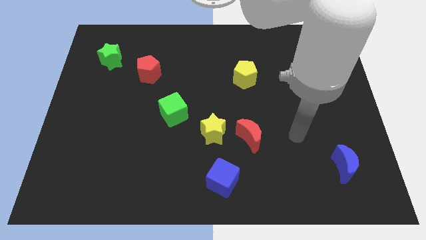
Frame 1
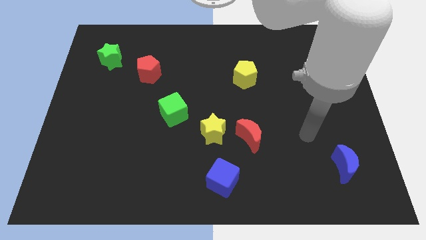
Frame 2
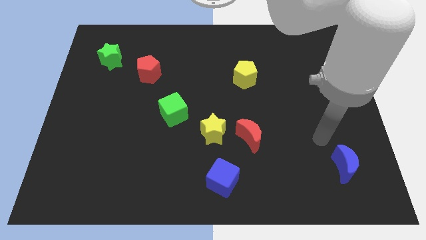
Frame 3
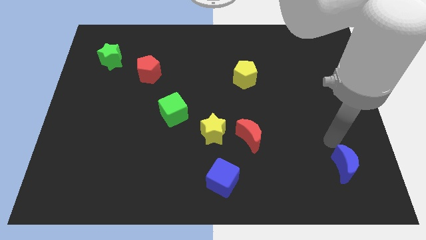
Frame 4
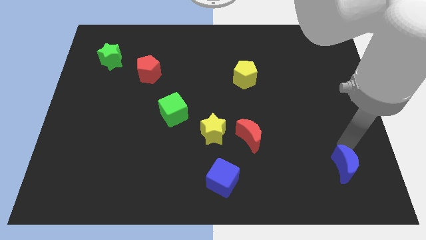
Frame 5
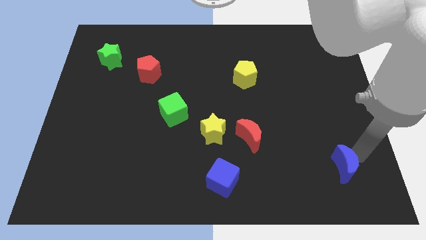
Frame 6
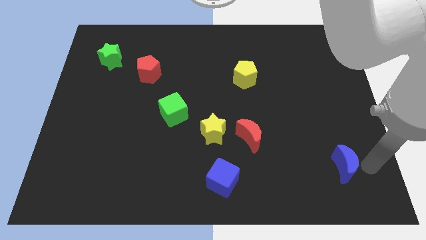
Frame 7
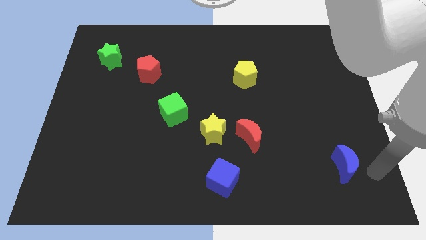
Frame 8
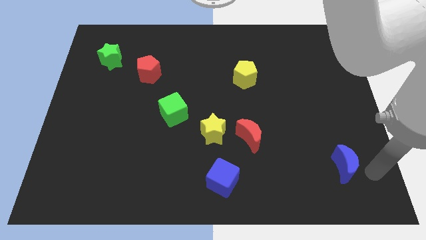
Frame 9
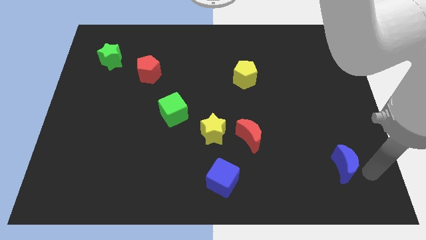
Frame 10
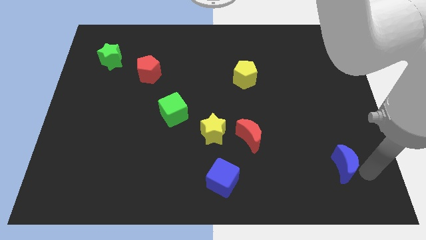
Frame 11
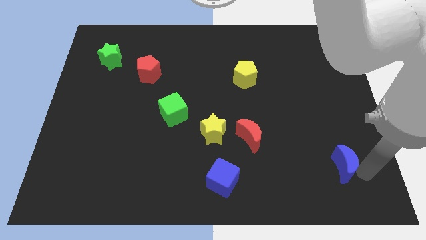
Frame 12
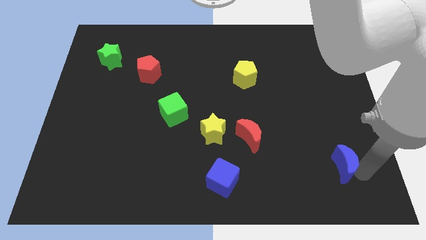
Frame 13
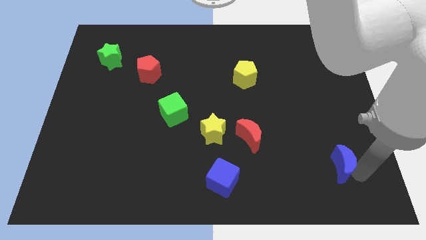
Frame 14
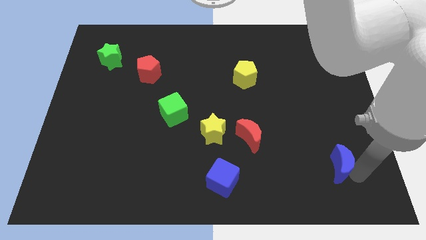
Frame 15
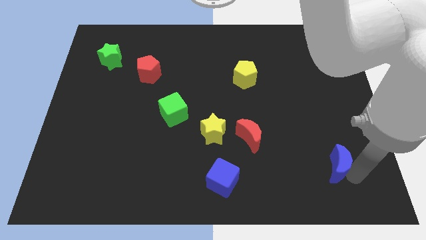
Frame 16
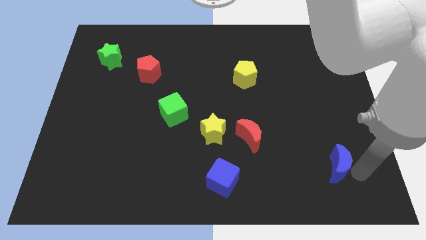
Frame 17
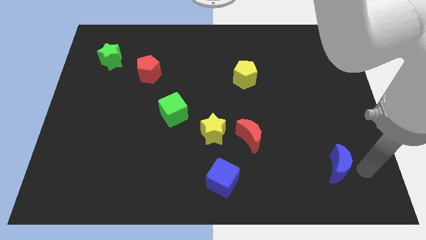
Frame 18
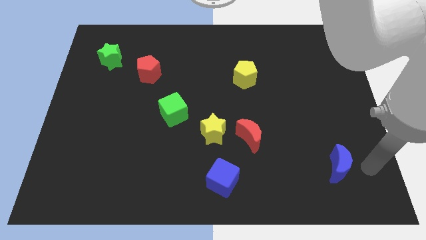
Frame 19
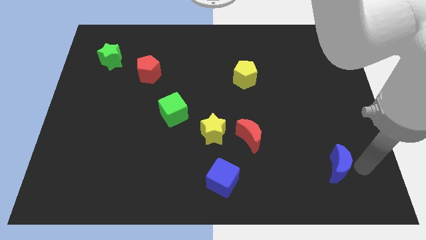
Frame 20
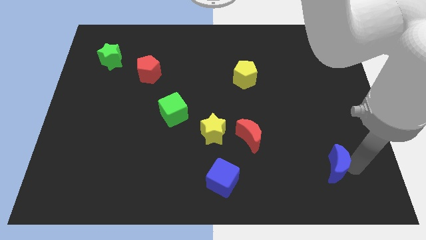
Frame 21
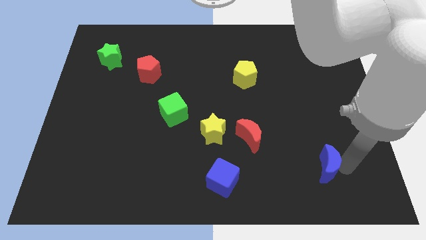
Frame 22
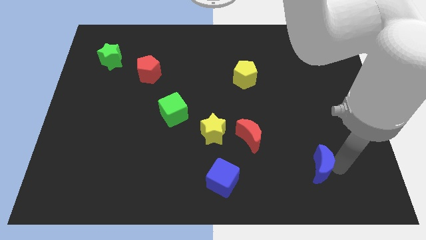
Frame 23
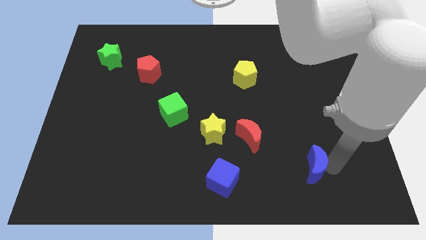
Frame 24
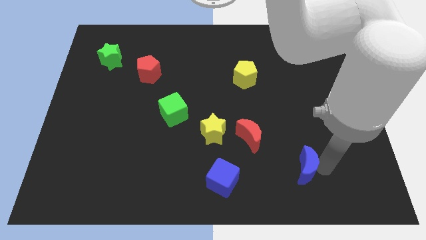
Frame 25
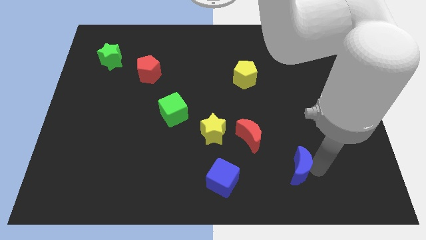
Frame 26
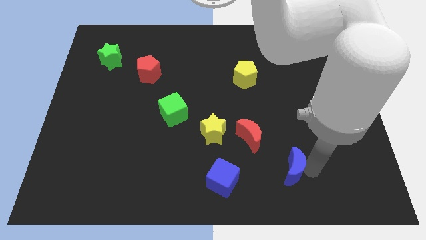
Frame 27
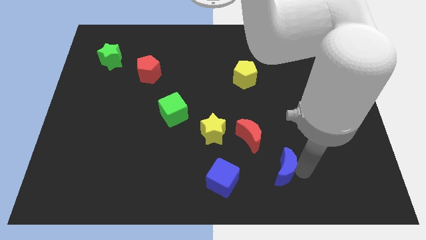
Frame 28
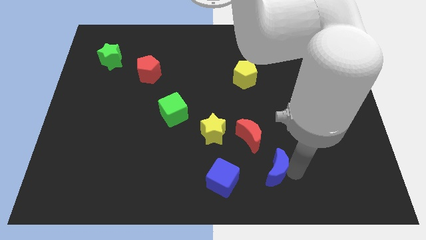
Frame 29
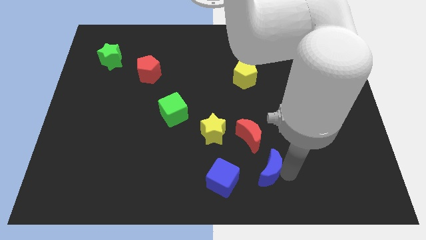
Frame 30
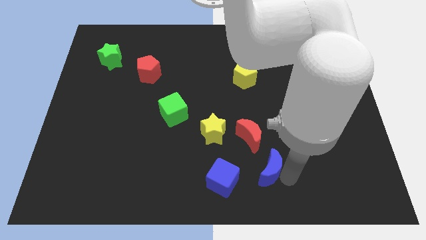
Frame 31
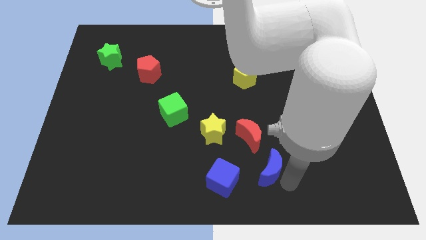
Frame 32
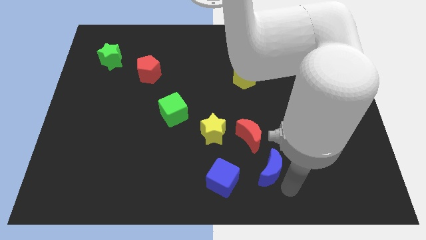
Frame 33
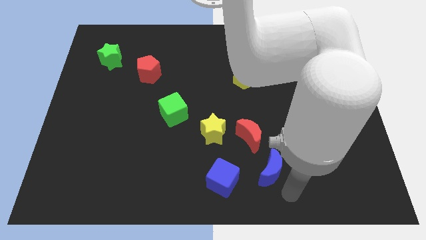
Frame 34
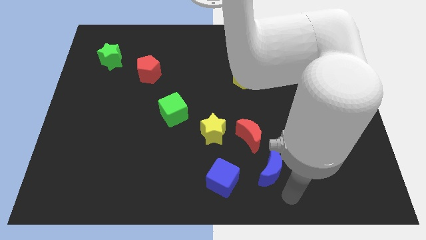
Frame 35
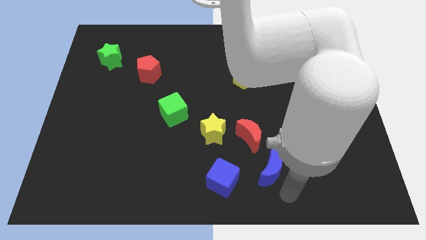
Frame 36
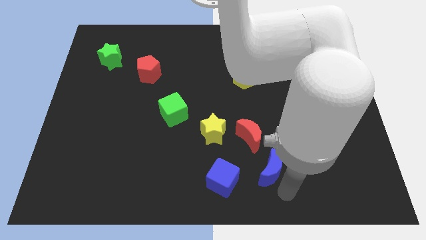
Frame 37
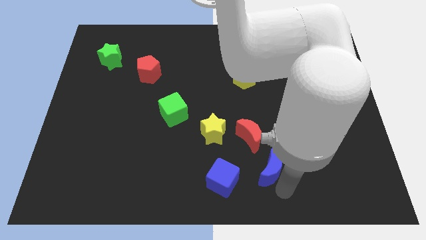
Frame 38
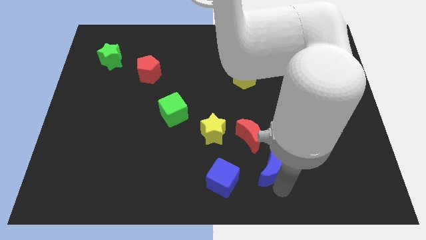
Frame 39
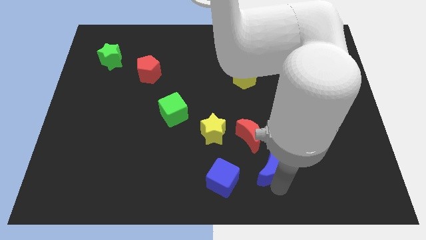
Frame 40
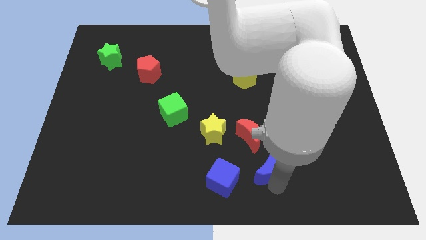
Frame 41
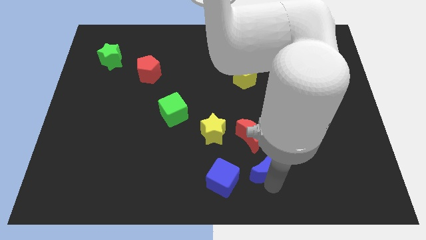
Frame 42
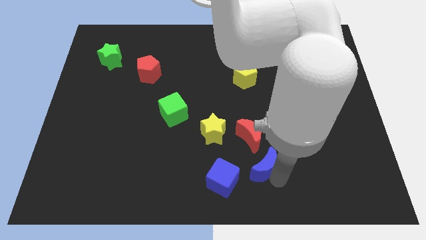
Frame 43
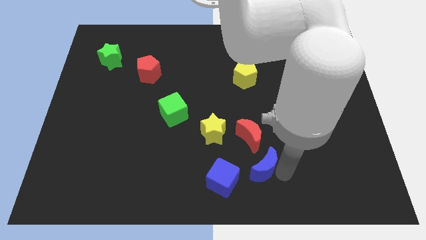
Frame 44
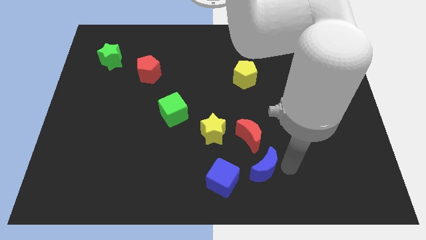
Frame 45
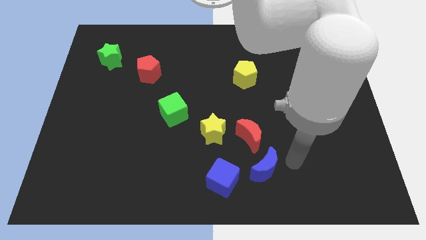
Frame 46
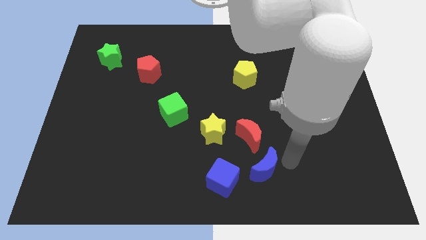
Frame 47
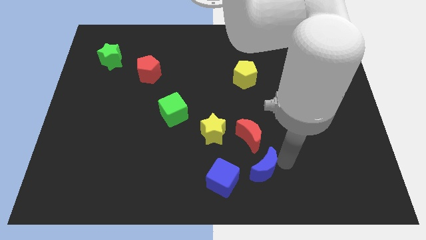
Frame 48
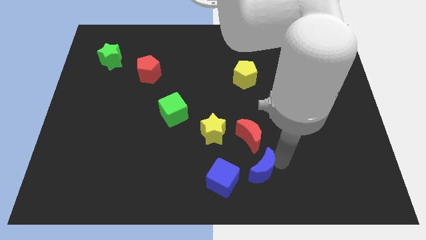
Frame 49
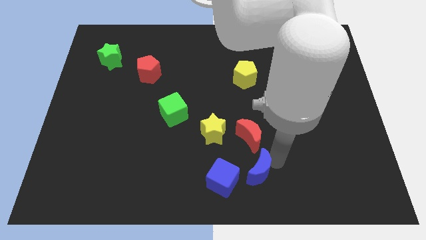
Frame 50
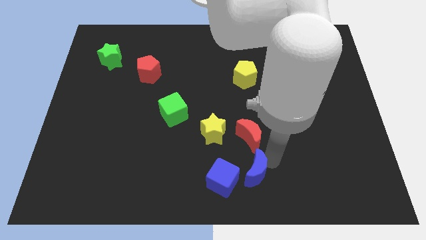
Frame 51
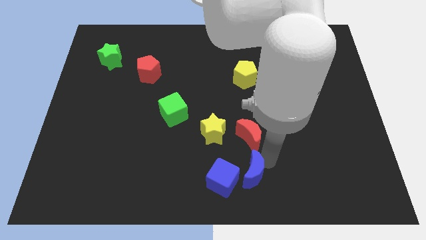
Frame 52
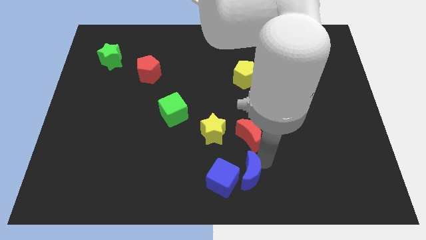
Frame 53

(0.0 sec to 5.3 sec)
put the blue moon to the blue cube

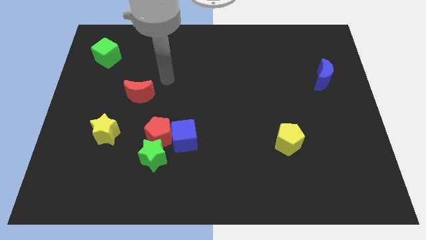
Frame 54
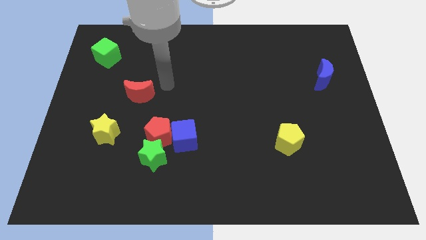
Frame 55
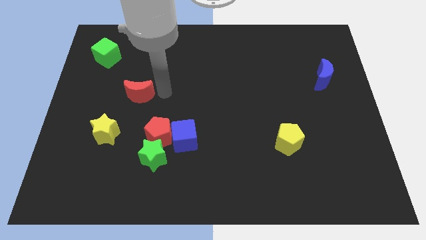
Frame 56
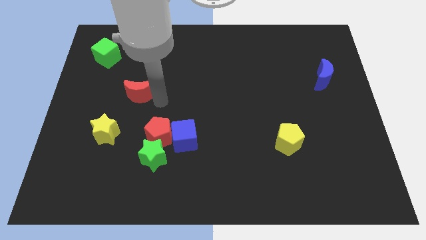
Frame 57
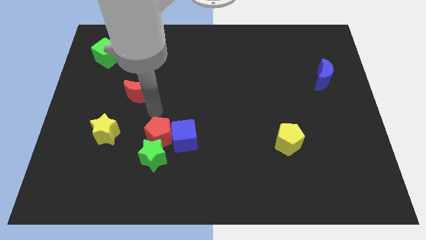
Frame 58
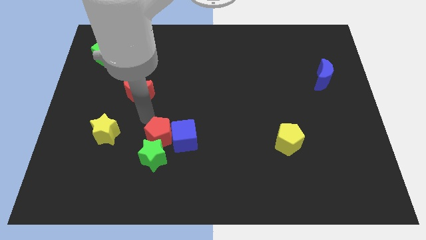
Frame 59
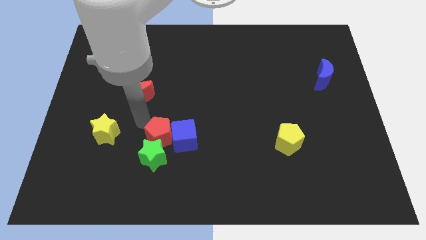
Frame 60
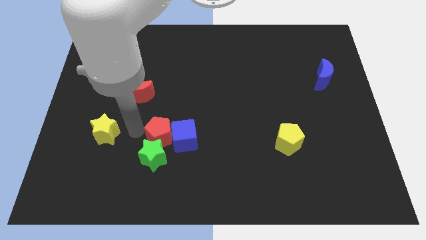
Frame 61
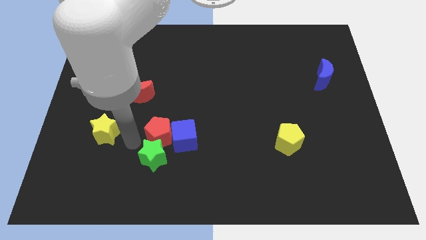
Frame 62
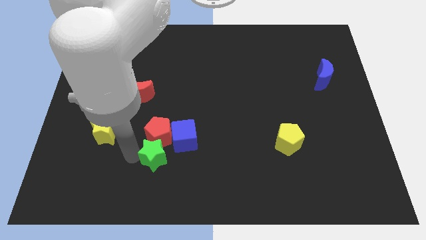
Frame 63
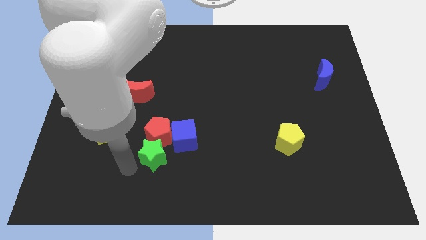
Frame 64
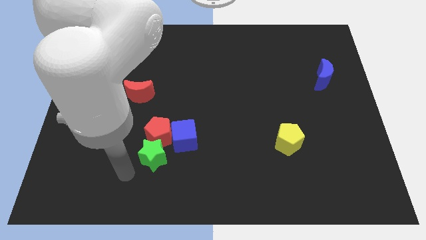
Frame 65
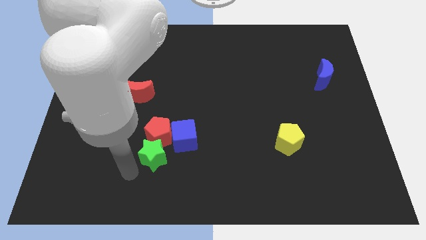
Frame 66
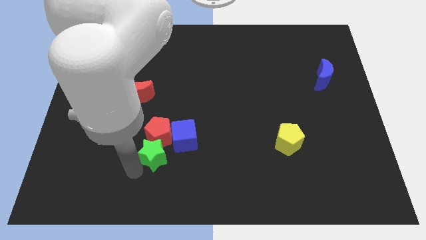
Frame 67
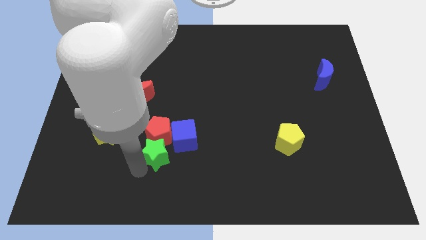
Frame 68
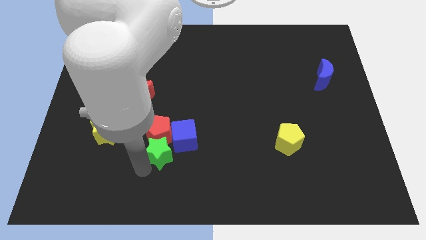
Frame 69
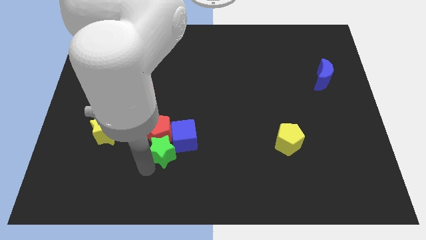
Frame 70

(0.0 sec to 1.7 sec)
move the green star close to the blue cube
